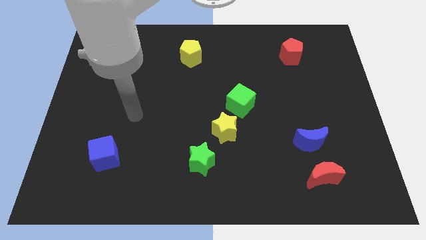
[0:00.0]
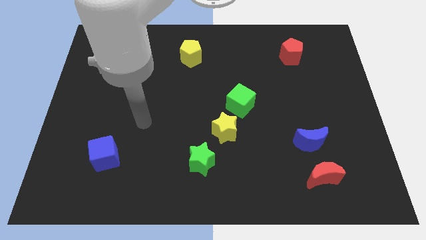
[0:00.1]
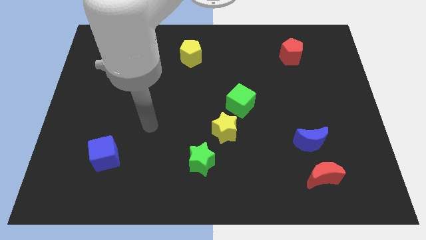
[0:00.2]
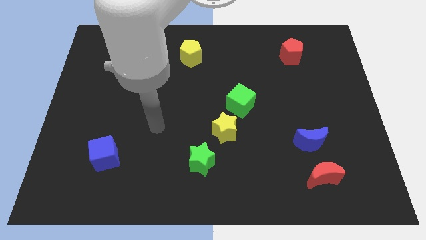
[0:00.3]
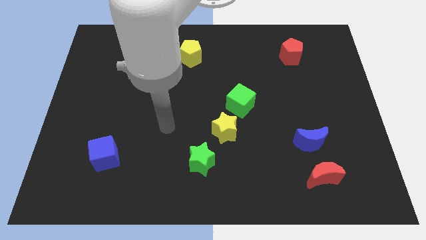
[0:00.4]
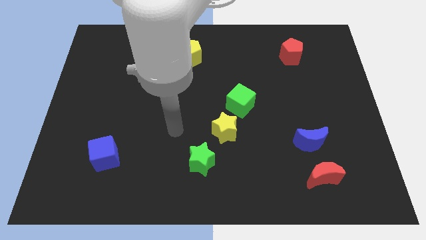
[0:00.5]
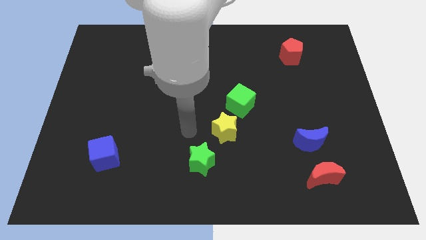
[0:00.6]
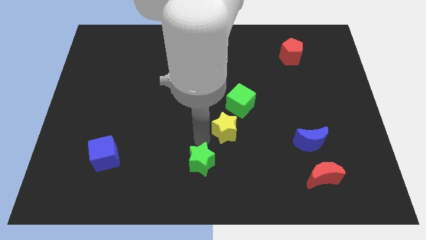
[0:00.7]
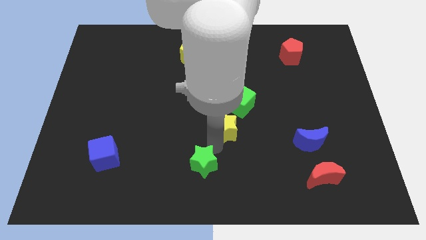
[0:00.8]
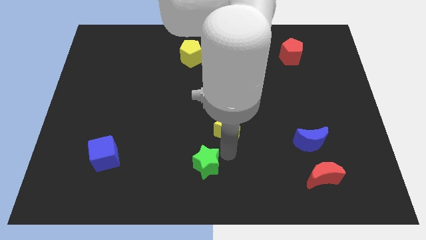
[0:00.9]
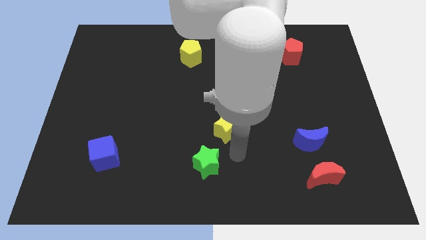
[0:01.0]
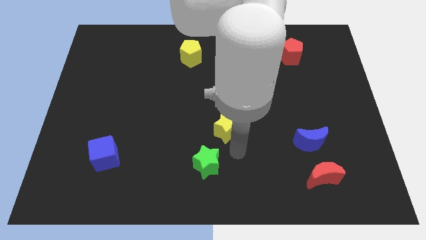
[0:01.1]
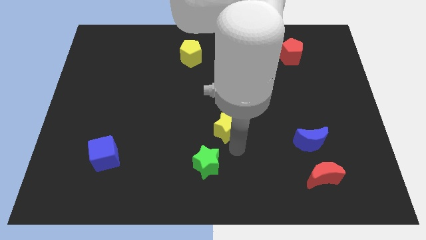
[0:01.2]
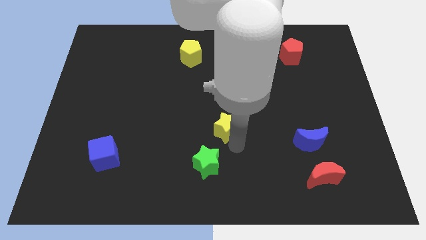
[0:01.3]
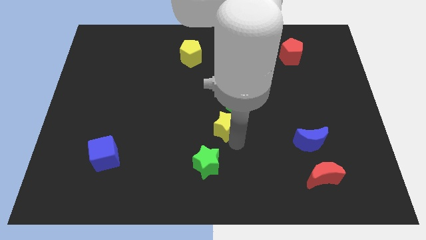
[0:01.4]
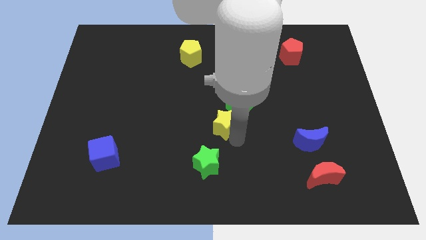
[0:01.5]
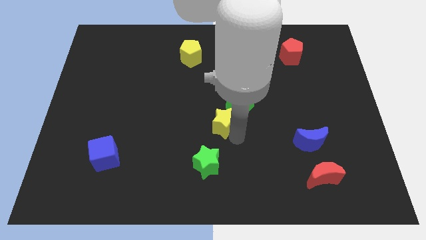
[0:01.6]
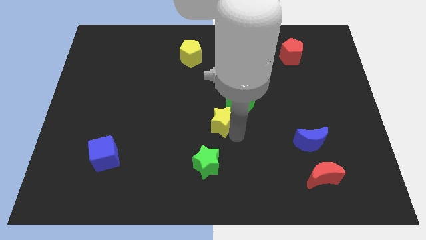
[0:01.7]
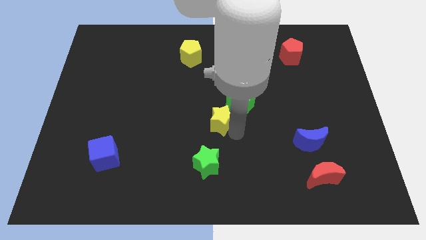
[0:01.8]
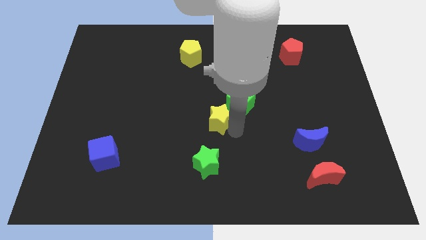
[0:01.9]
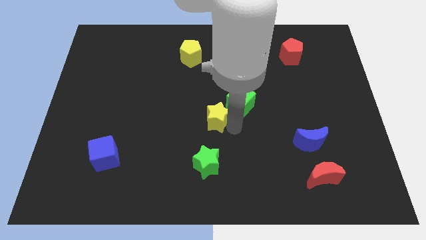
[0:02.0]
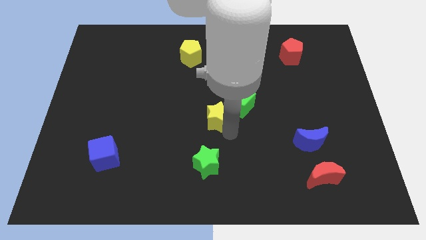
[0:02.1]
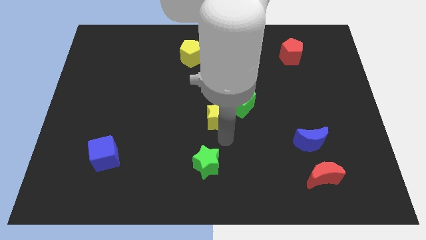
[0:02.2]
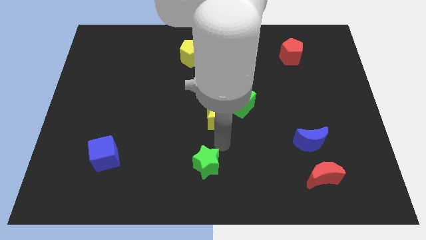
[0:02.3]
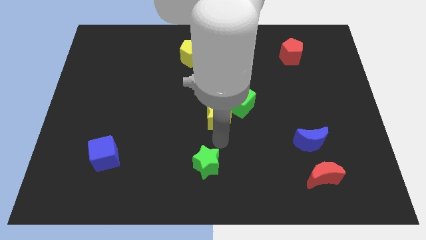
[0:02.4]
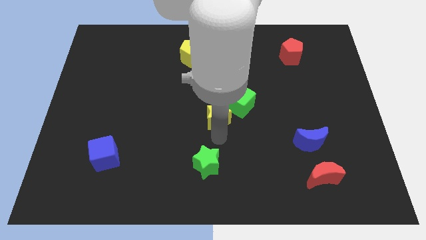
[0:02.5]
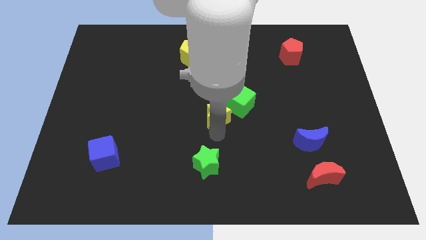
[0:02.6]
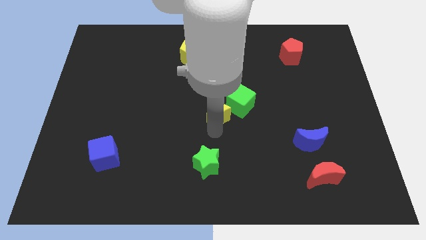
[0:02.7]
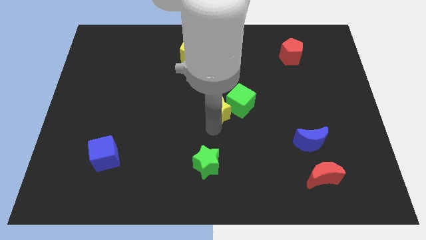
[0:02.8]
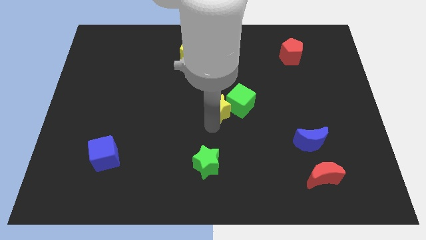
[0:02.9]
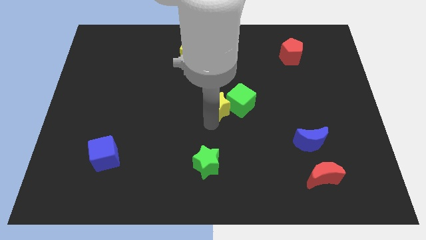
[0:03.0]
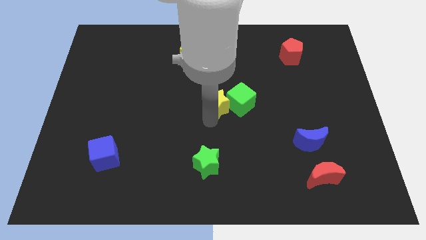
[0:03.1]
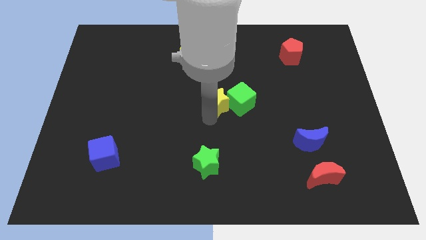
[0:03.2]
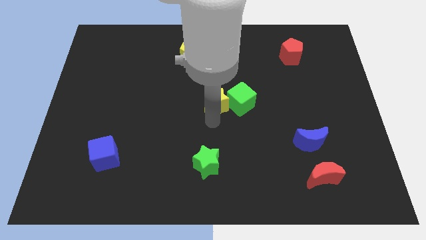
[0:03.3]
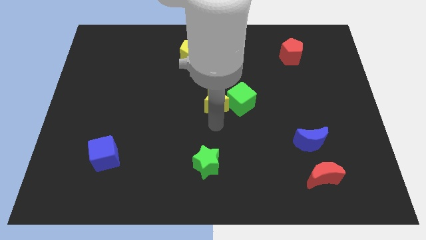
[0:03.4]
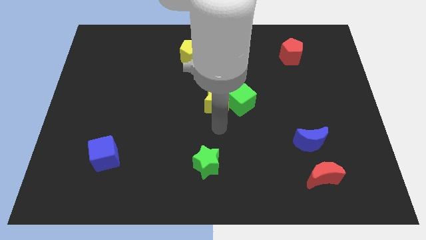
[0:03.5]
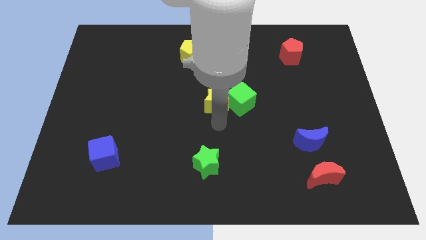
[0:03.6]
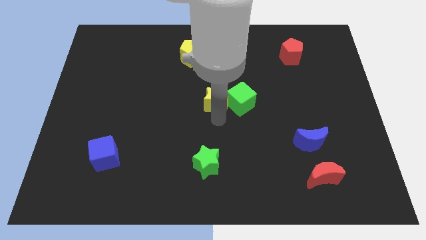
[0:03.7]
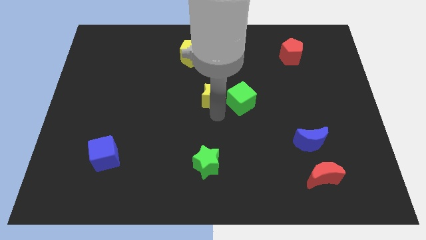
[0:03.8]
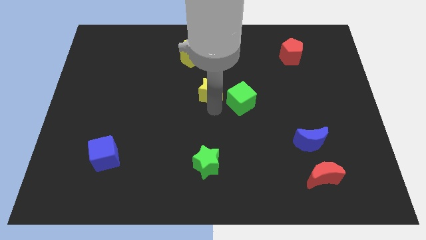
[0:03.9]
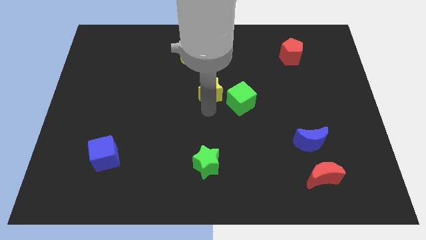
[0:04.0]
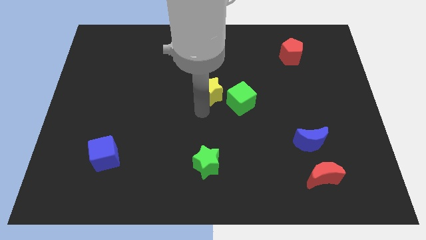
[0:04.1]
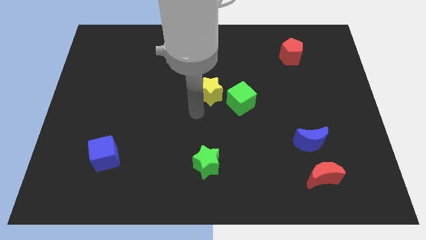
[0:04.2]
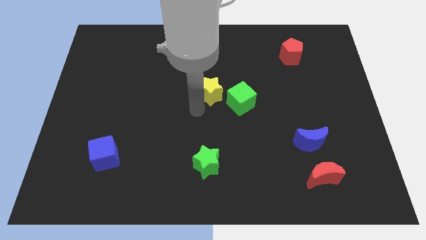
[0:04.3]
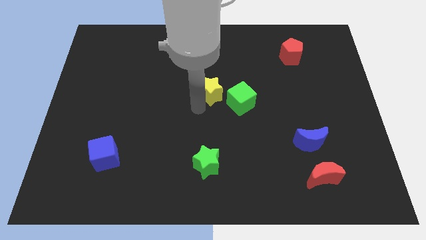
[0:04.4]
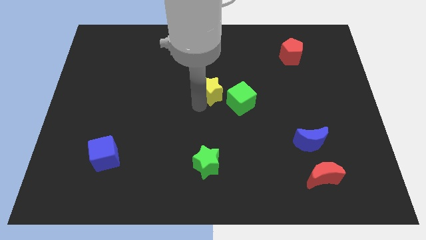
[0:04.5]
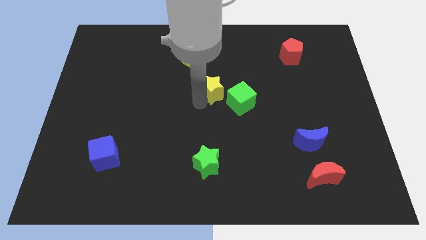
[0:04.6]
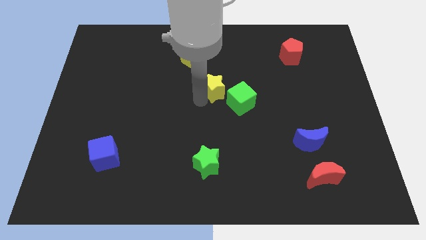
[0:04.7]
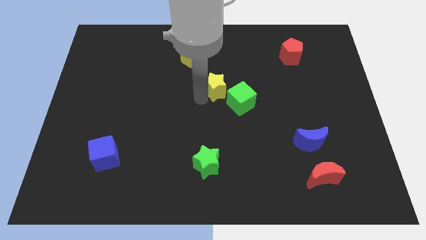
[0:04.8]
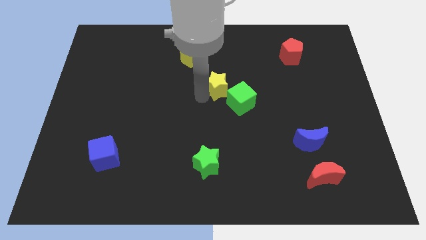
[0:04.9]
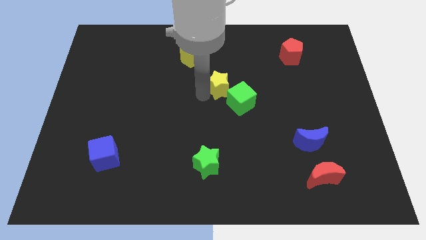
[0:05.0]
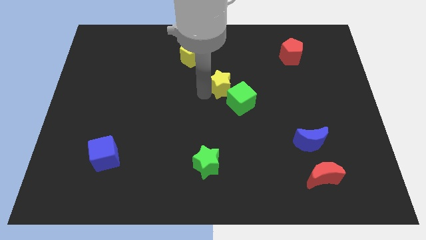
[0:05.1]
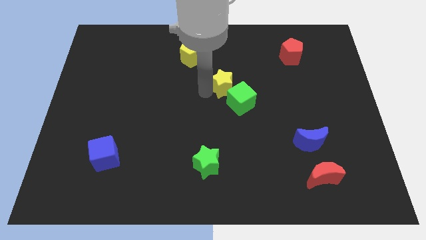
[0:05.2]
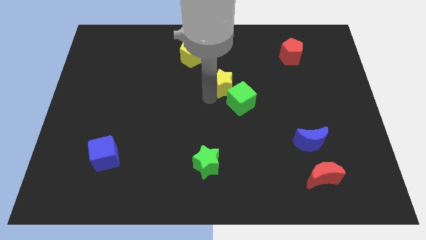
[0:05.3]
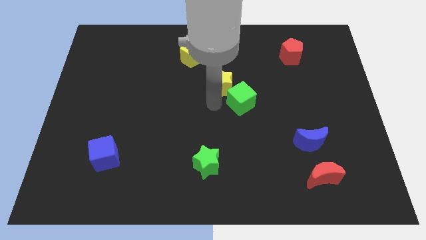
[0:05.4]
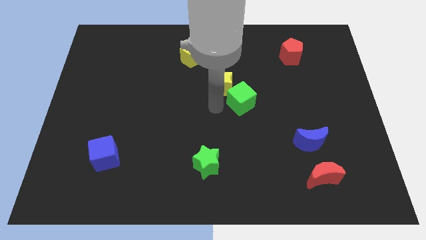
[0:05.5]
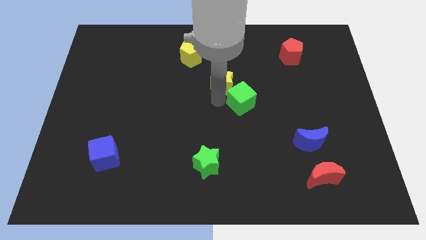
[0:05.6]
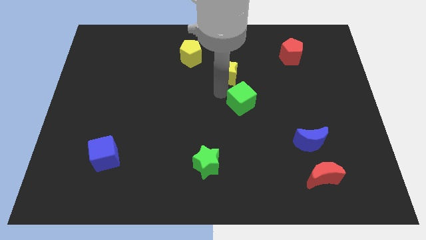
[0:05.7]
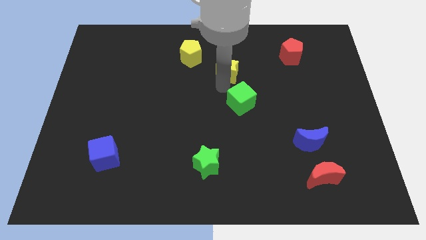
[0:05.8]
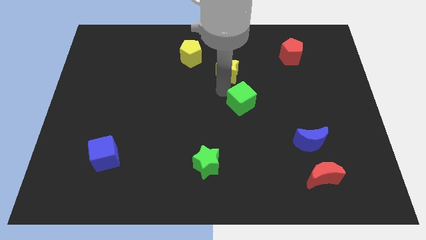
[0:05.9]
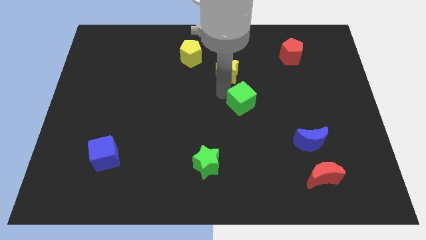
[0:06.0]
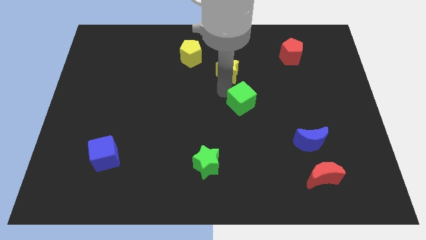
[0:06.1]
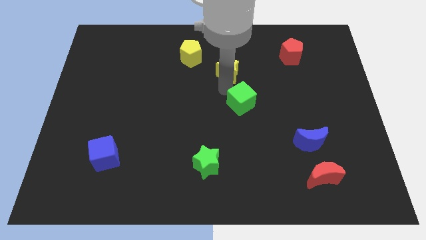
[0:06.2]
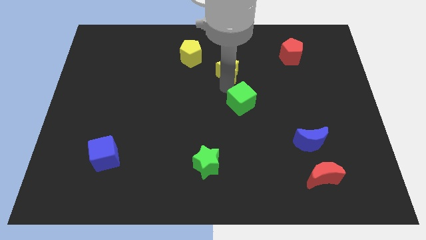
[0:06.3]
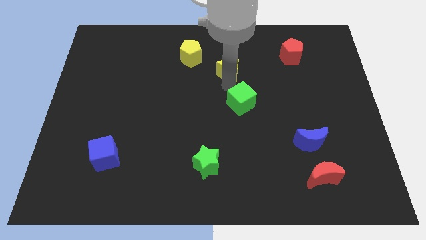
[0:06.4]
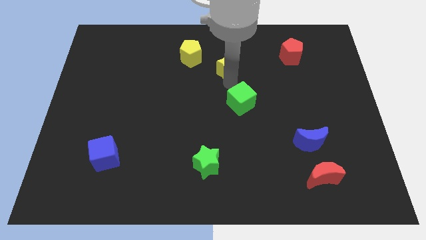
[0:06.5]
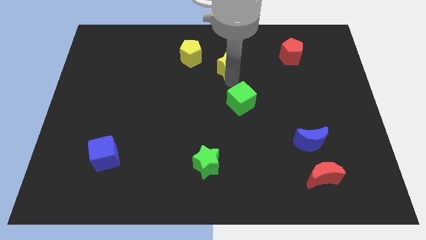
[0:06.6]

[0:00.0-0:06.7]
push the yellow star to the right of the yellow pentagon
